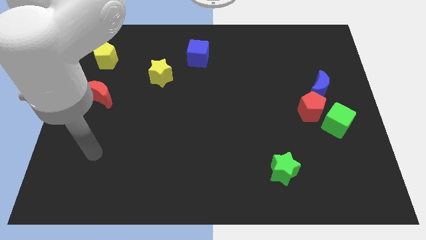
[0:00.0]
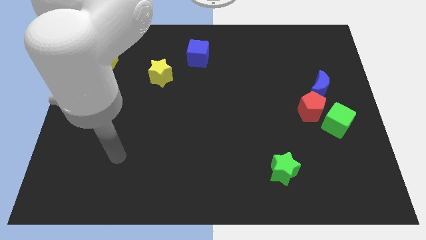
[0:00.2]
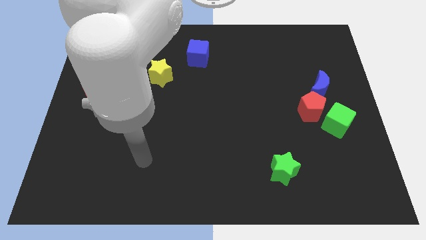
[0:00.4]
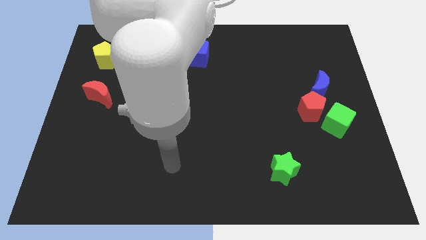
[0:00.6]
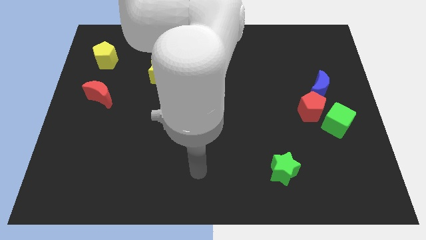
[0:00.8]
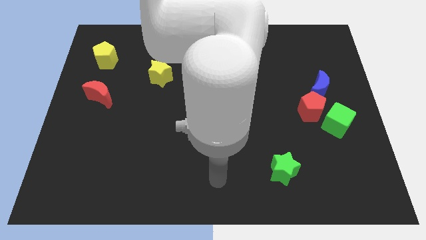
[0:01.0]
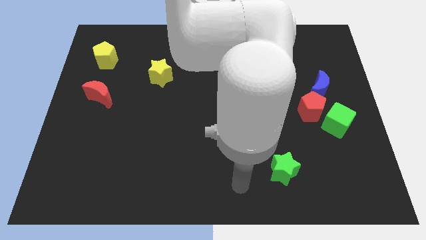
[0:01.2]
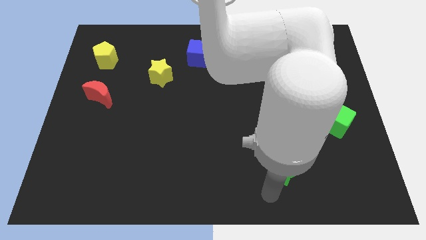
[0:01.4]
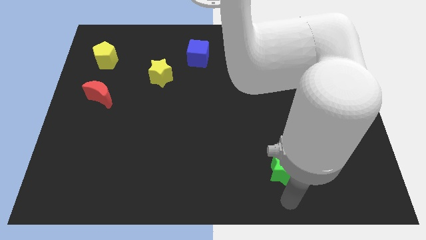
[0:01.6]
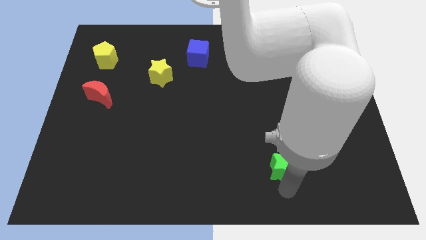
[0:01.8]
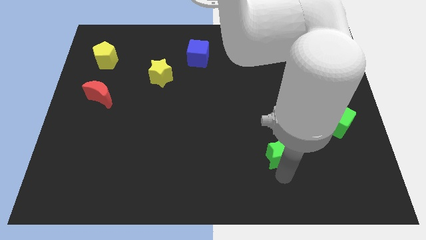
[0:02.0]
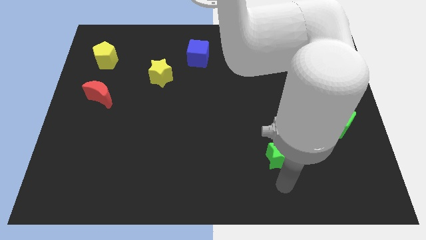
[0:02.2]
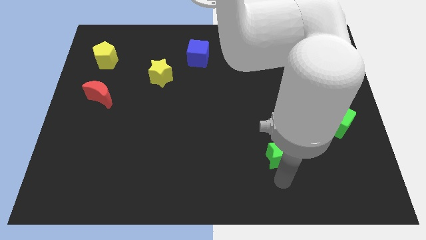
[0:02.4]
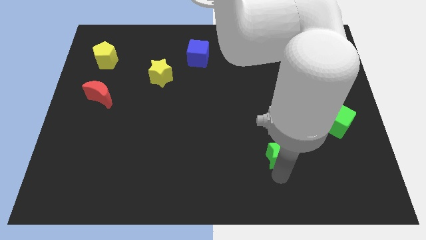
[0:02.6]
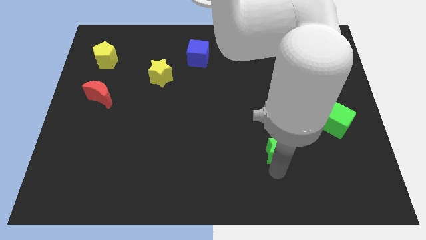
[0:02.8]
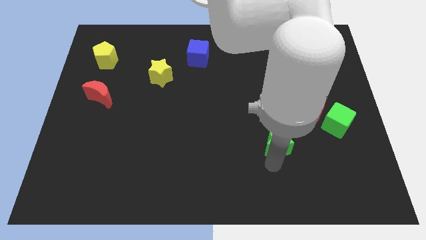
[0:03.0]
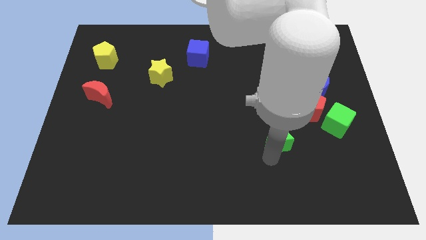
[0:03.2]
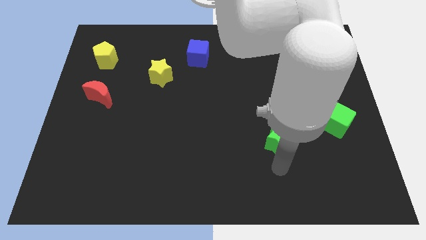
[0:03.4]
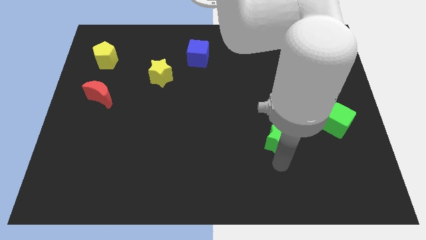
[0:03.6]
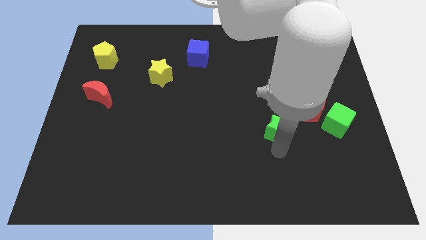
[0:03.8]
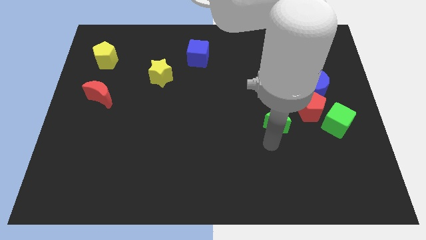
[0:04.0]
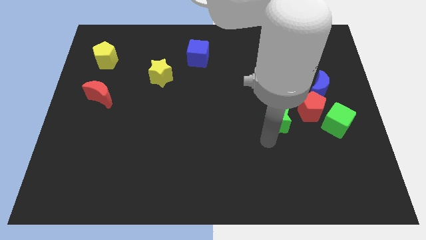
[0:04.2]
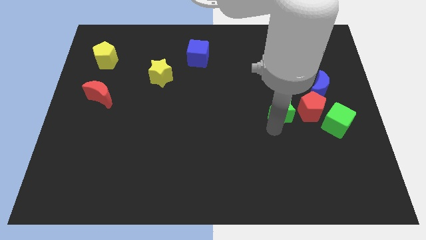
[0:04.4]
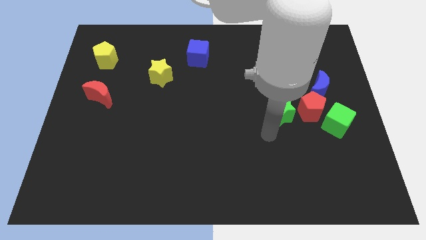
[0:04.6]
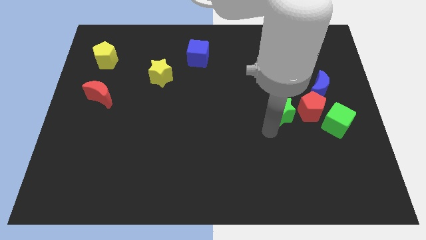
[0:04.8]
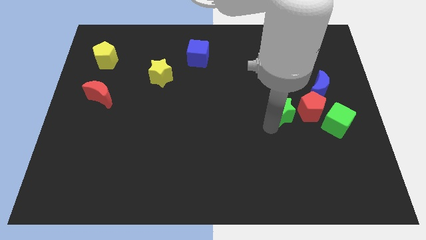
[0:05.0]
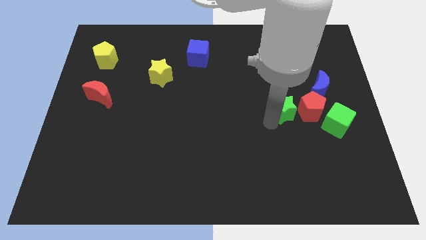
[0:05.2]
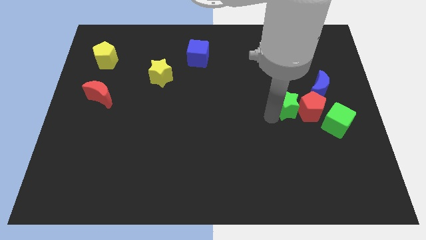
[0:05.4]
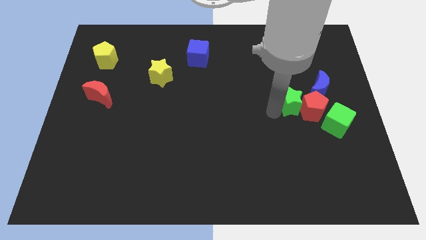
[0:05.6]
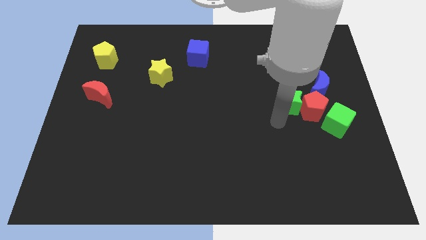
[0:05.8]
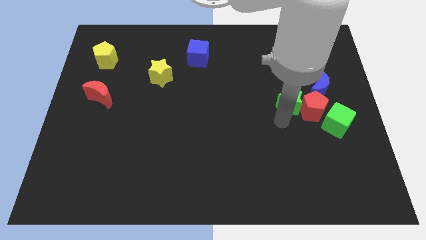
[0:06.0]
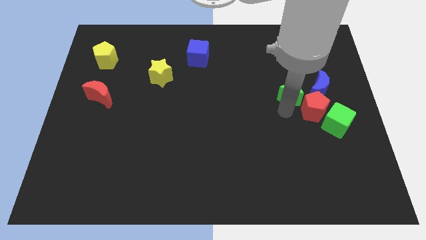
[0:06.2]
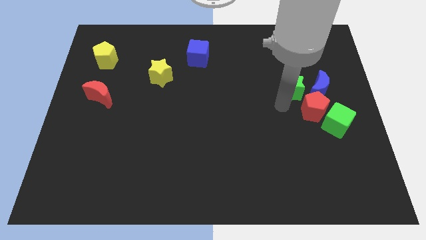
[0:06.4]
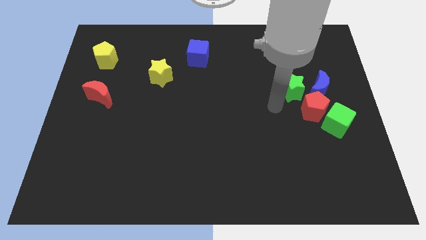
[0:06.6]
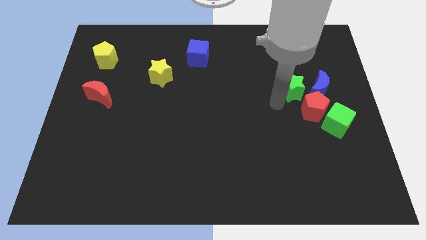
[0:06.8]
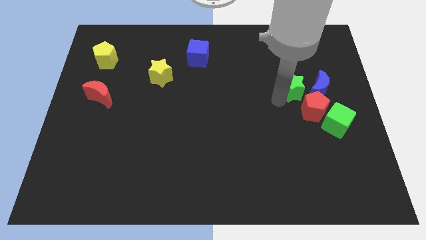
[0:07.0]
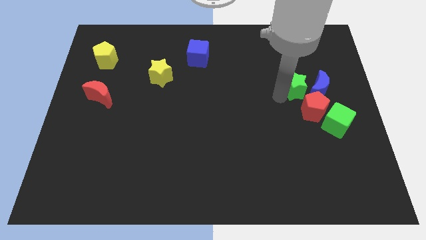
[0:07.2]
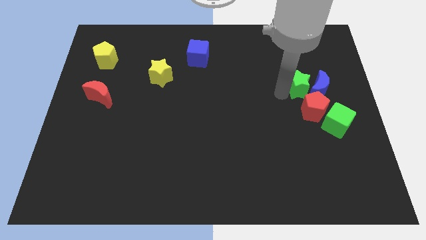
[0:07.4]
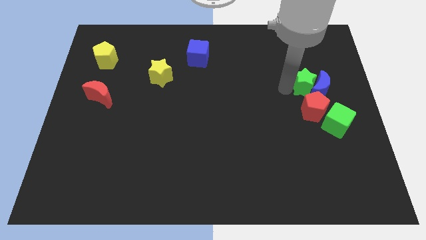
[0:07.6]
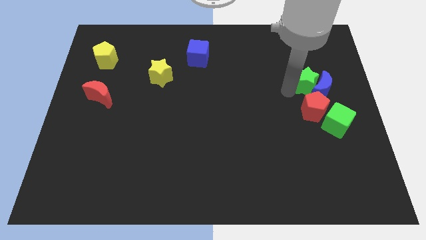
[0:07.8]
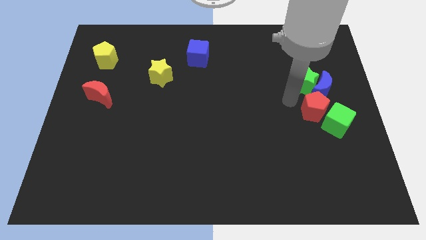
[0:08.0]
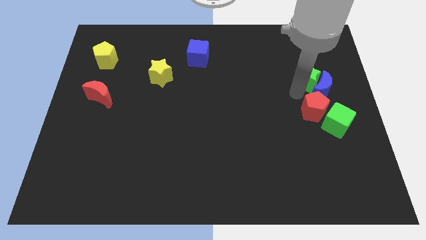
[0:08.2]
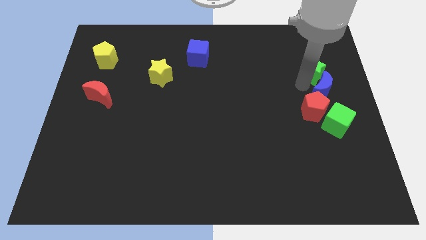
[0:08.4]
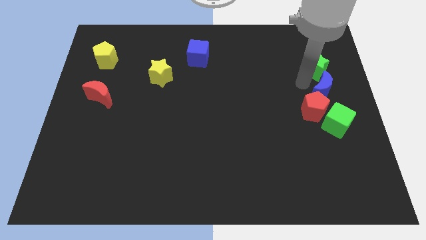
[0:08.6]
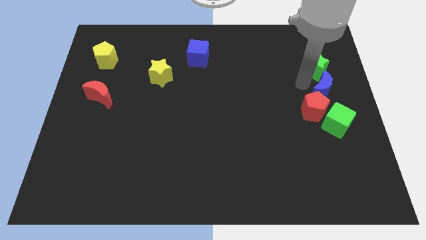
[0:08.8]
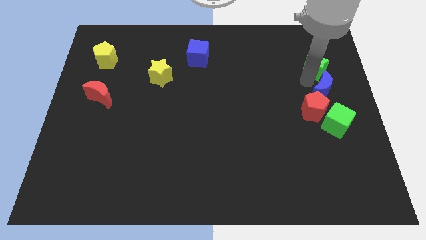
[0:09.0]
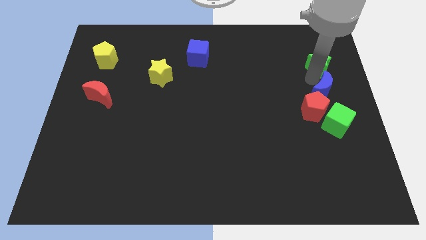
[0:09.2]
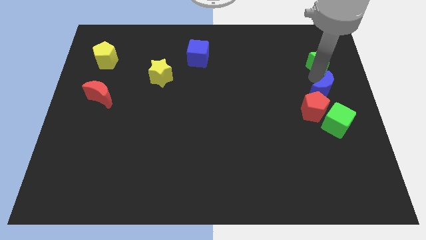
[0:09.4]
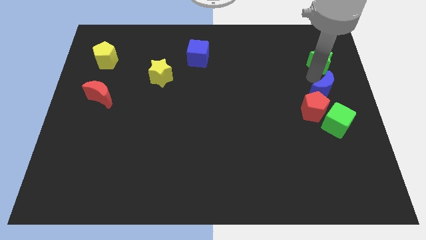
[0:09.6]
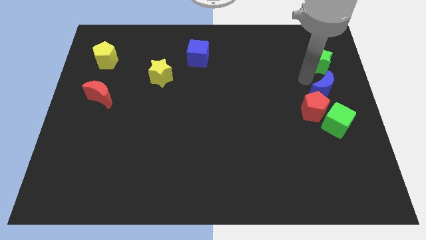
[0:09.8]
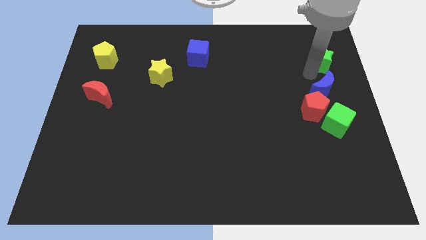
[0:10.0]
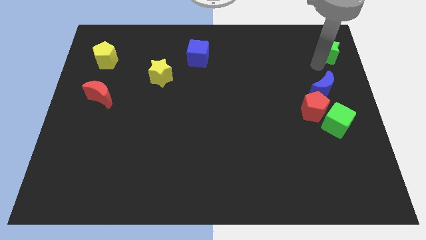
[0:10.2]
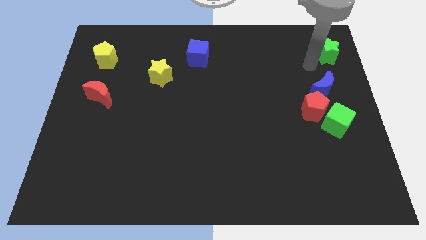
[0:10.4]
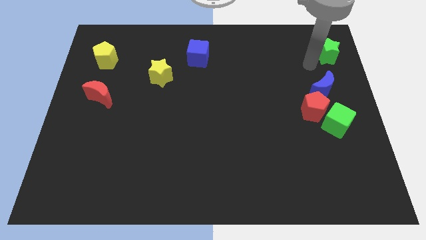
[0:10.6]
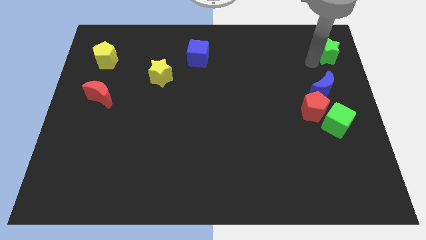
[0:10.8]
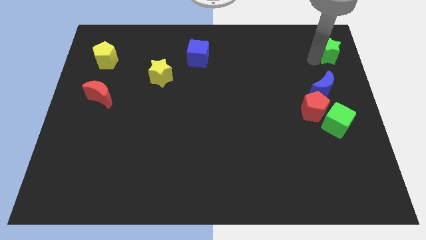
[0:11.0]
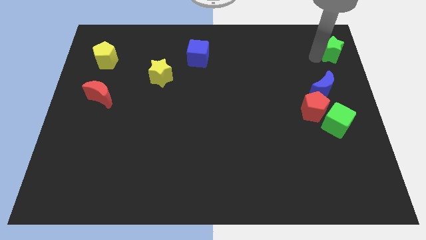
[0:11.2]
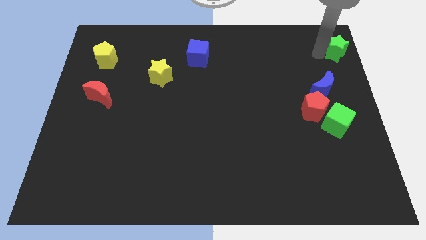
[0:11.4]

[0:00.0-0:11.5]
push the green star to the top right
